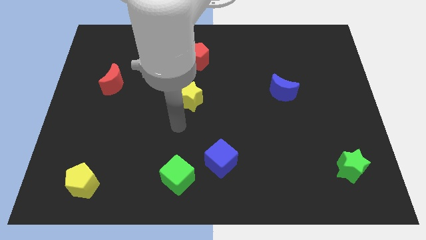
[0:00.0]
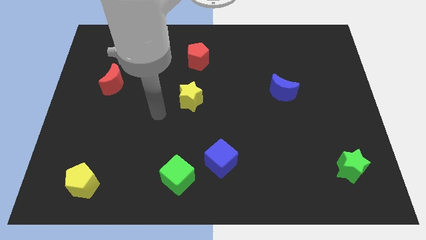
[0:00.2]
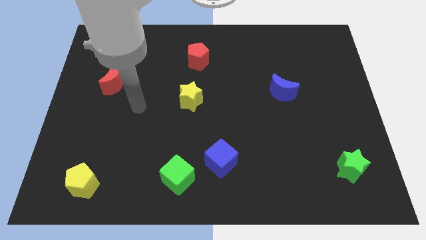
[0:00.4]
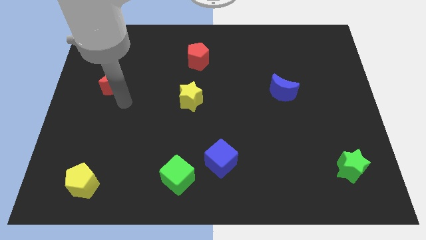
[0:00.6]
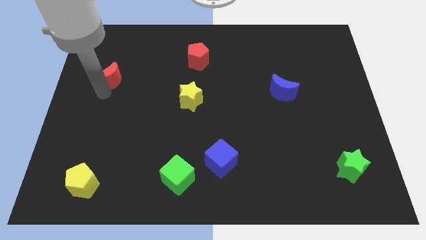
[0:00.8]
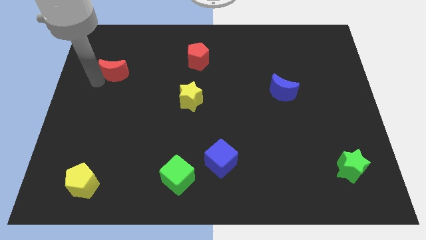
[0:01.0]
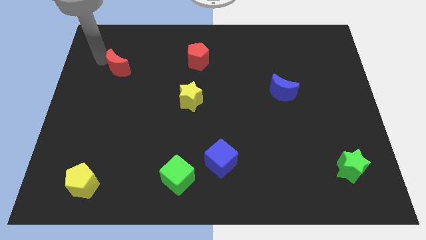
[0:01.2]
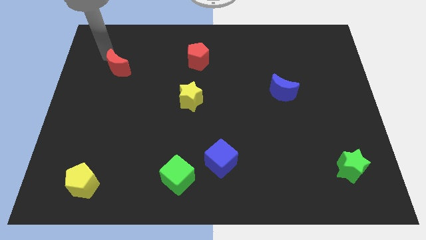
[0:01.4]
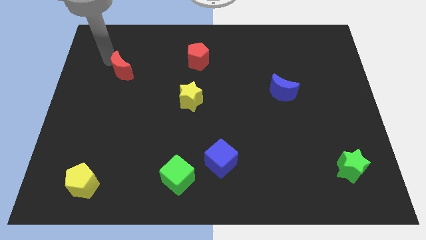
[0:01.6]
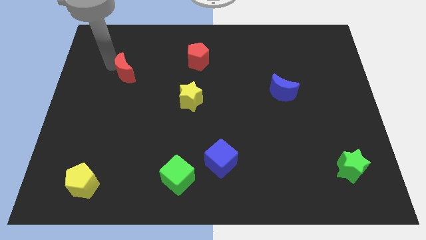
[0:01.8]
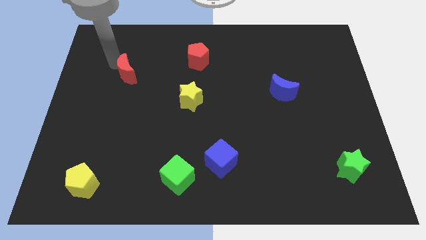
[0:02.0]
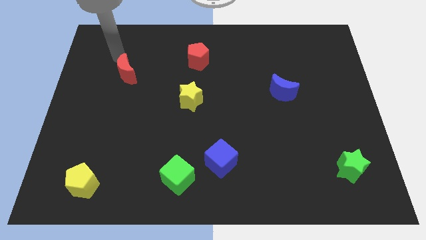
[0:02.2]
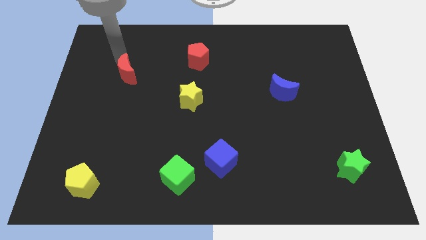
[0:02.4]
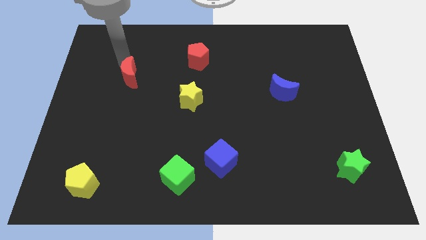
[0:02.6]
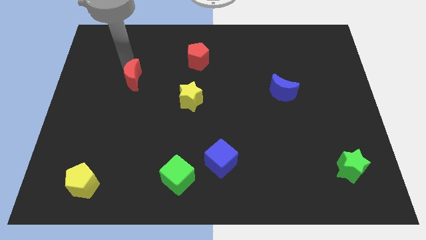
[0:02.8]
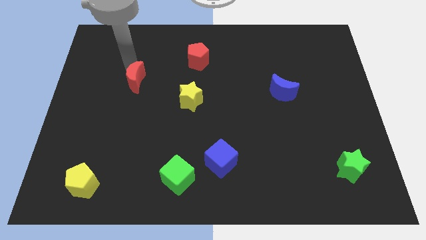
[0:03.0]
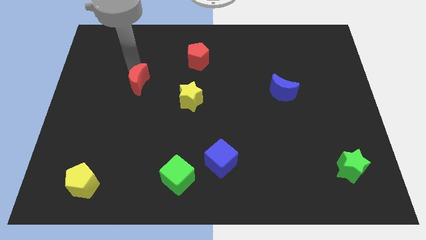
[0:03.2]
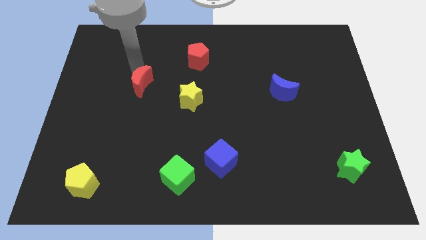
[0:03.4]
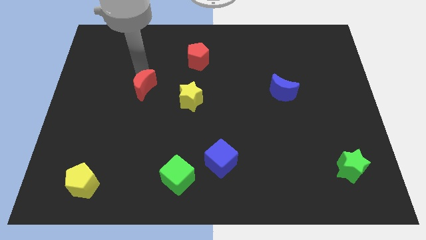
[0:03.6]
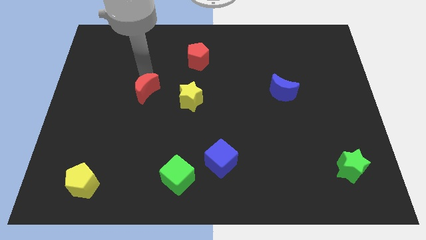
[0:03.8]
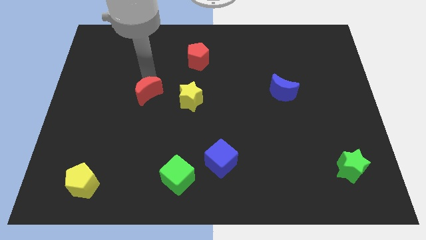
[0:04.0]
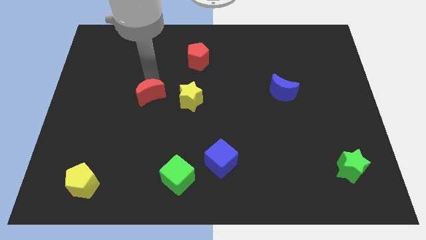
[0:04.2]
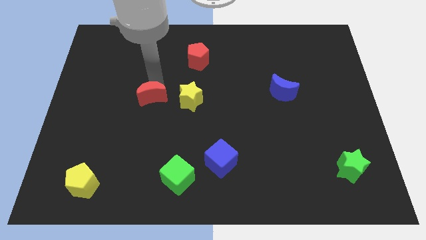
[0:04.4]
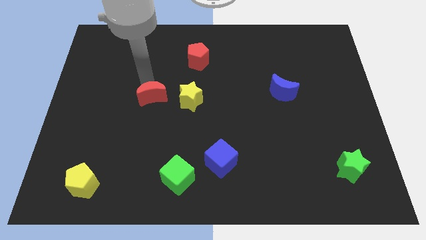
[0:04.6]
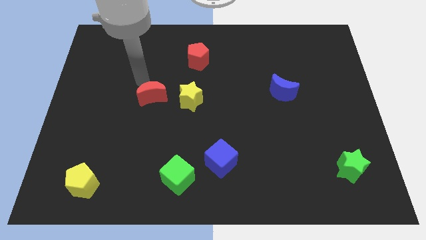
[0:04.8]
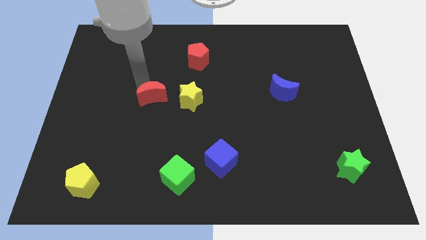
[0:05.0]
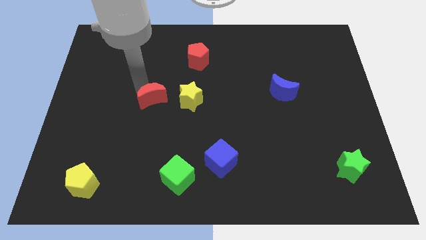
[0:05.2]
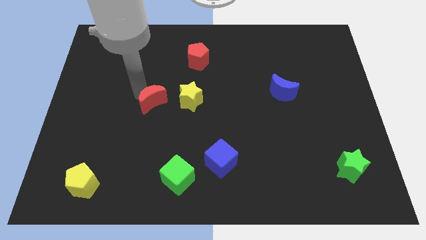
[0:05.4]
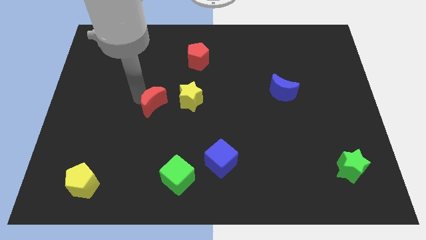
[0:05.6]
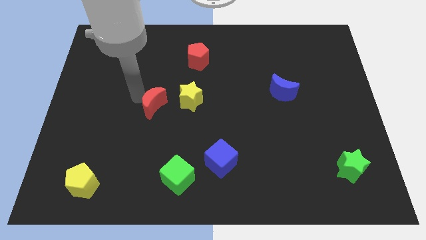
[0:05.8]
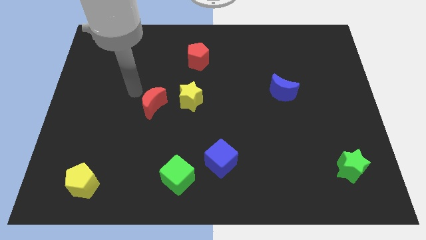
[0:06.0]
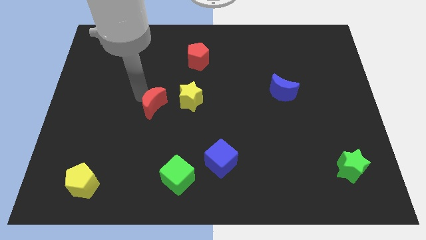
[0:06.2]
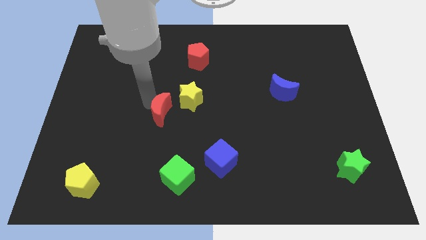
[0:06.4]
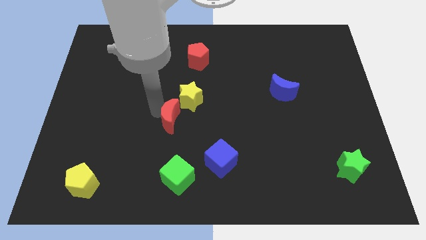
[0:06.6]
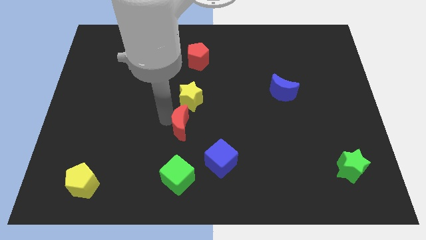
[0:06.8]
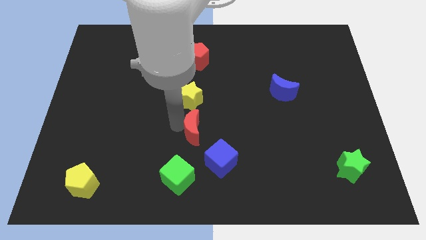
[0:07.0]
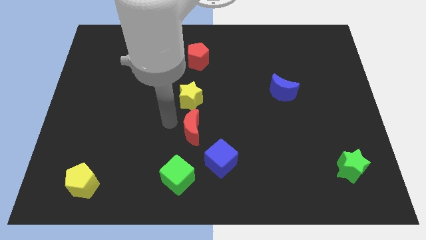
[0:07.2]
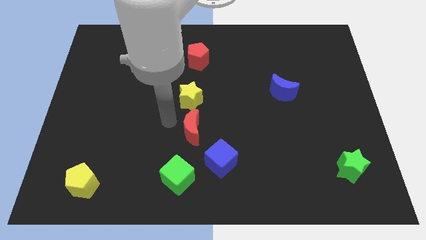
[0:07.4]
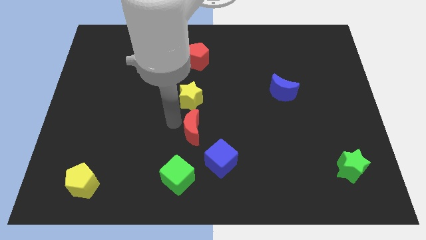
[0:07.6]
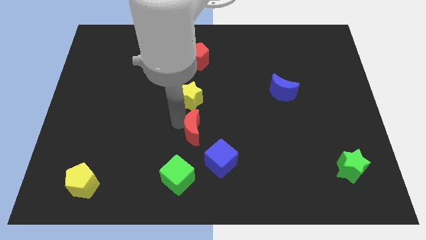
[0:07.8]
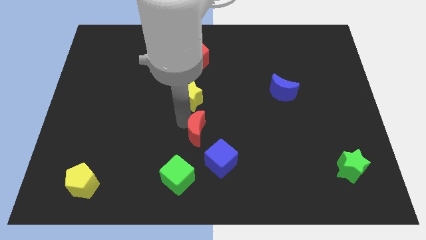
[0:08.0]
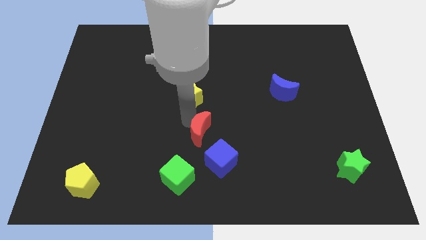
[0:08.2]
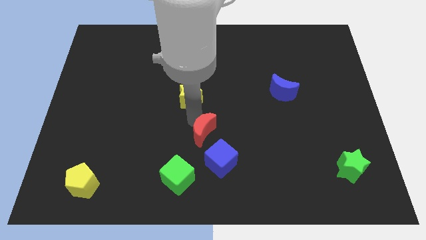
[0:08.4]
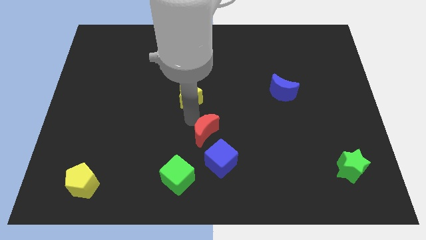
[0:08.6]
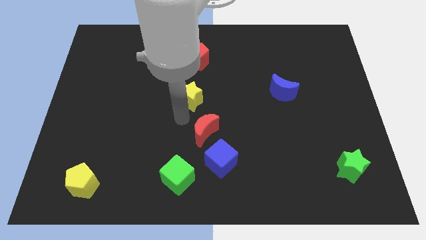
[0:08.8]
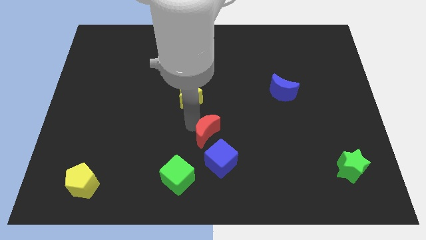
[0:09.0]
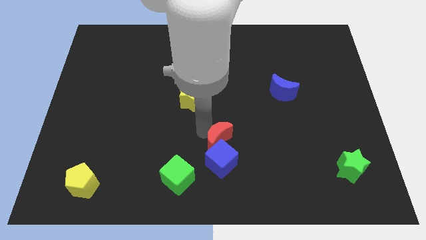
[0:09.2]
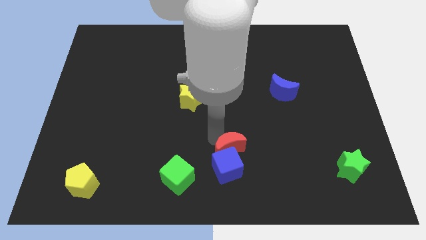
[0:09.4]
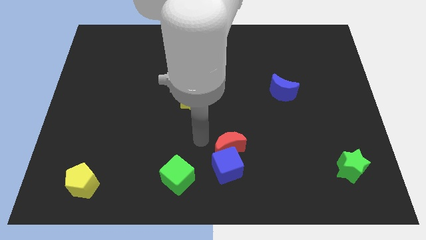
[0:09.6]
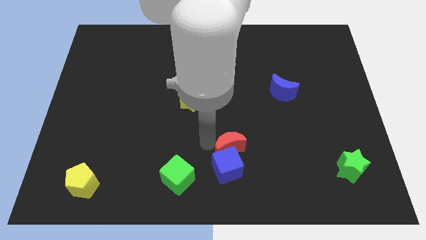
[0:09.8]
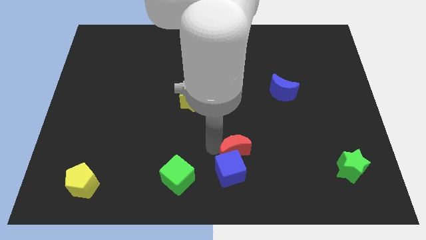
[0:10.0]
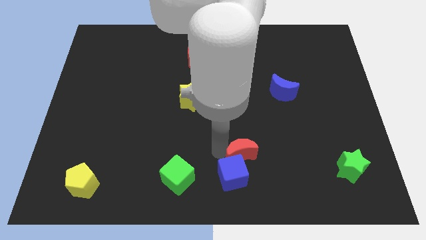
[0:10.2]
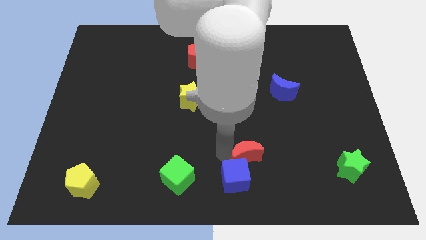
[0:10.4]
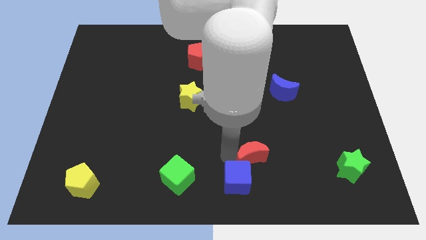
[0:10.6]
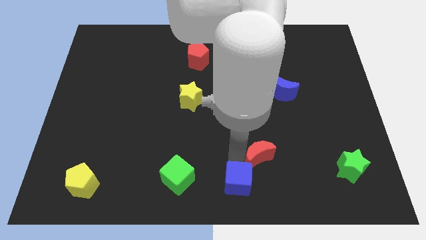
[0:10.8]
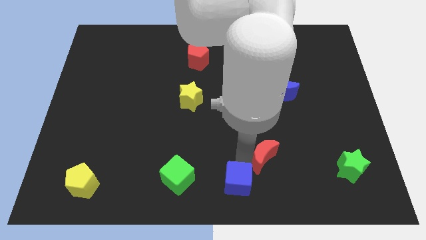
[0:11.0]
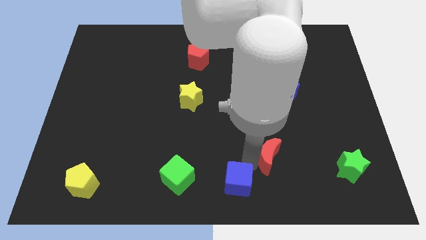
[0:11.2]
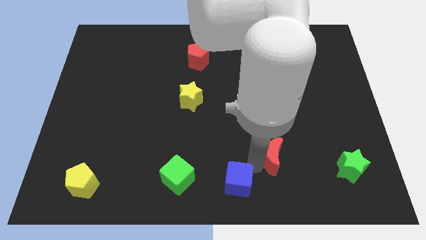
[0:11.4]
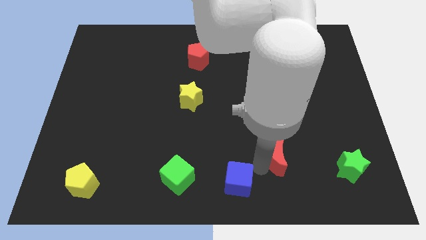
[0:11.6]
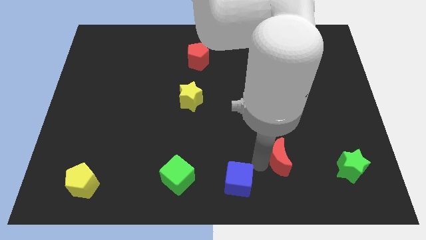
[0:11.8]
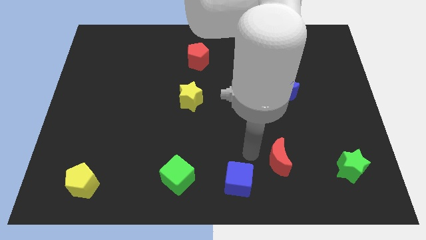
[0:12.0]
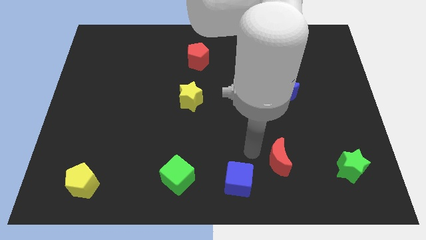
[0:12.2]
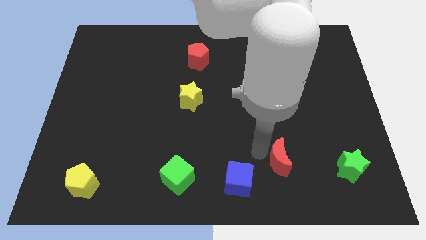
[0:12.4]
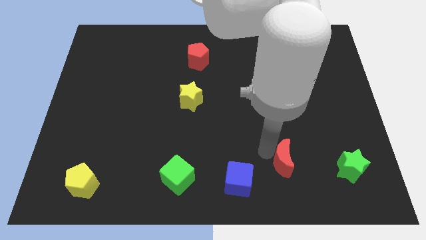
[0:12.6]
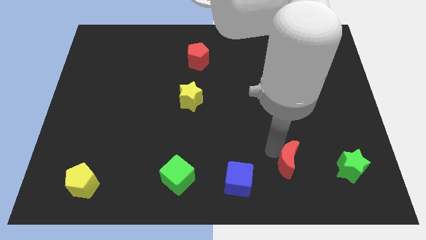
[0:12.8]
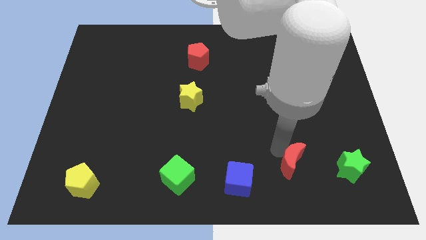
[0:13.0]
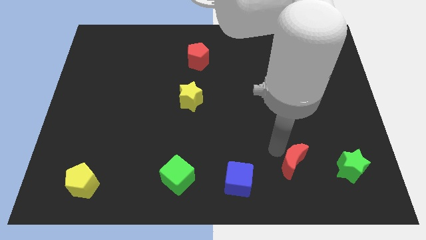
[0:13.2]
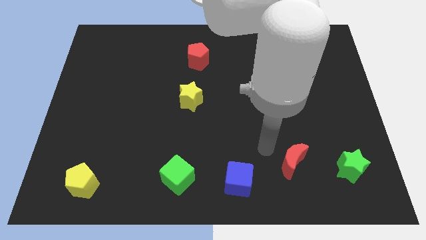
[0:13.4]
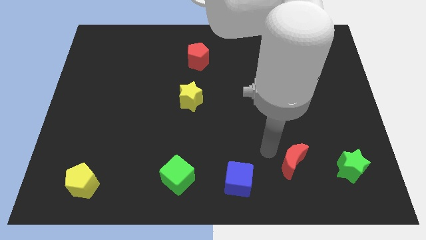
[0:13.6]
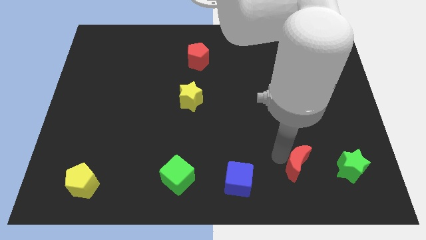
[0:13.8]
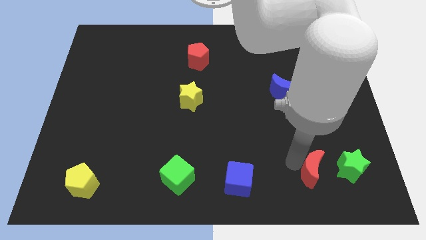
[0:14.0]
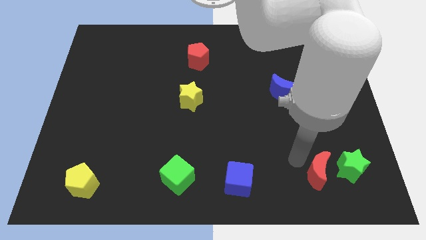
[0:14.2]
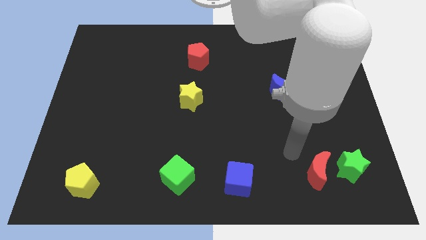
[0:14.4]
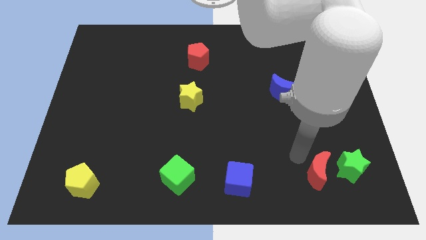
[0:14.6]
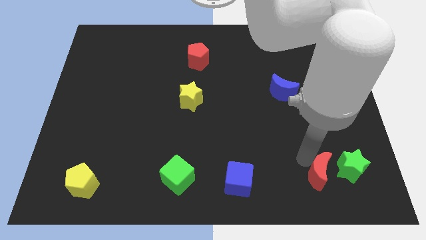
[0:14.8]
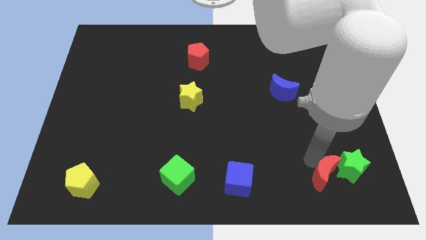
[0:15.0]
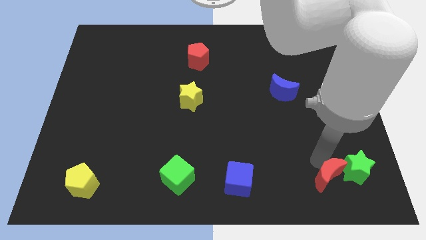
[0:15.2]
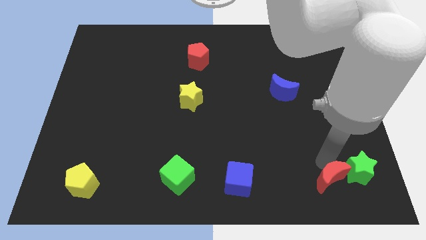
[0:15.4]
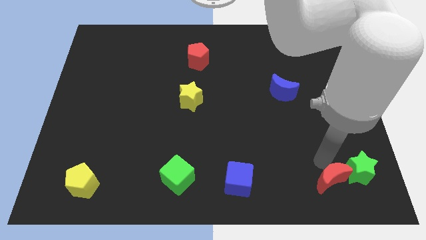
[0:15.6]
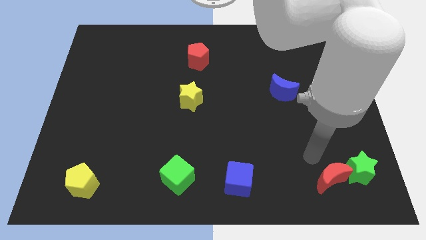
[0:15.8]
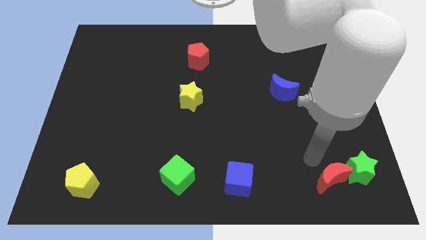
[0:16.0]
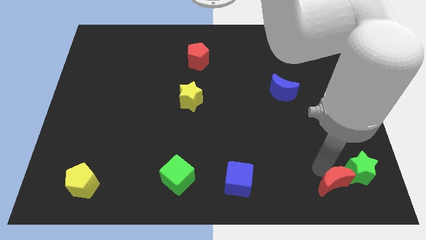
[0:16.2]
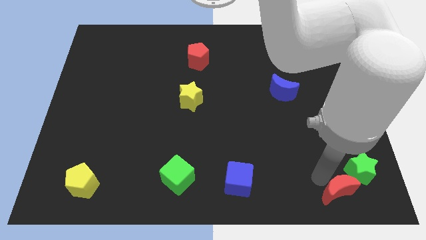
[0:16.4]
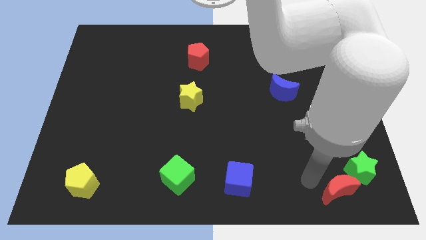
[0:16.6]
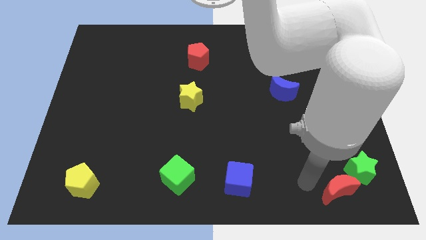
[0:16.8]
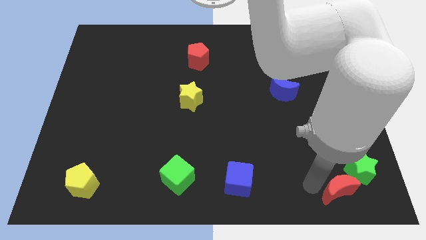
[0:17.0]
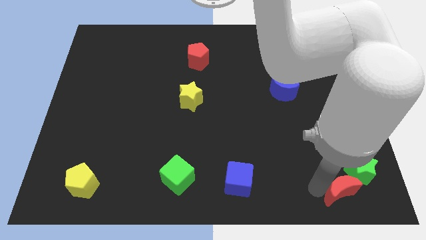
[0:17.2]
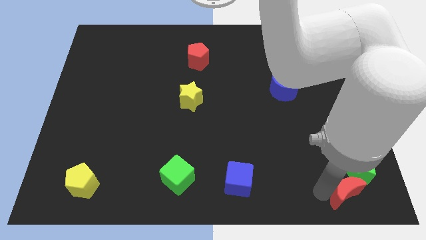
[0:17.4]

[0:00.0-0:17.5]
push the red moon to the lower right corner
